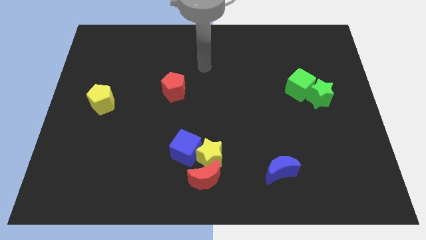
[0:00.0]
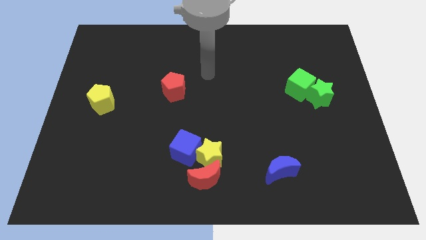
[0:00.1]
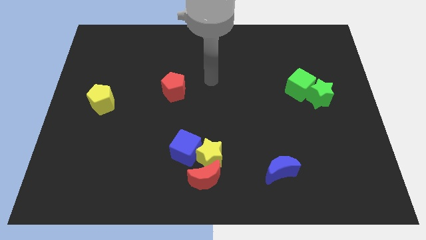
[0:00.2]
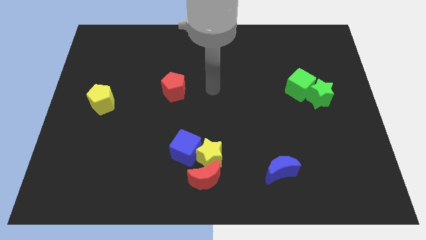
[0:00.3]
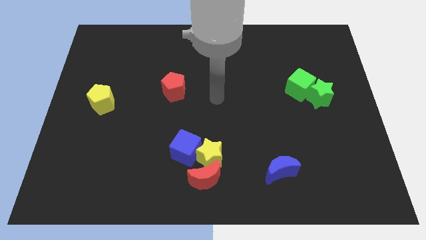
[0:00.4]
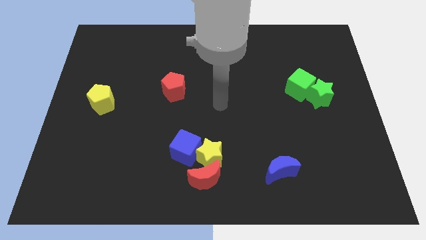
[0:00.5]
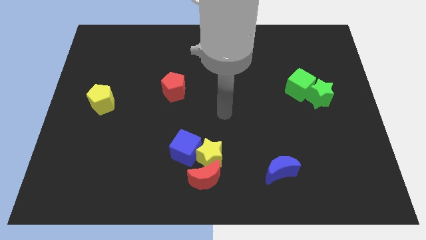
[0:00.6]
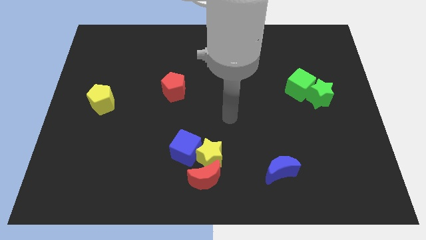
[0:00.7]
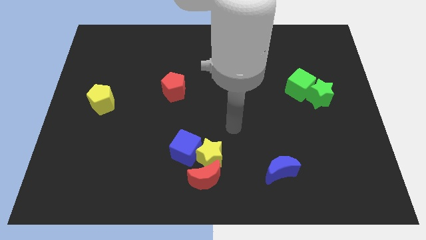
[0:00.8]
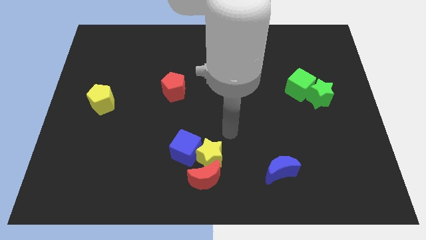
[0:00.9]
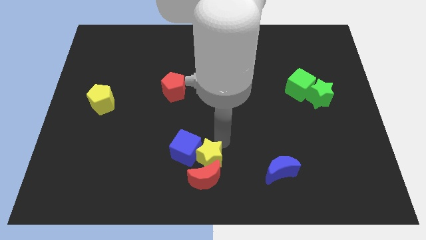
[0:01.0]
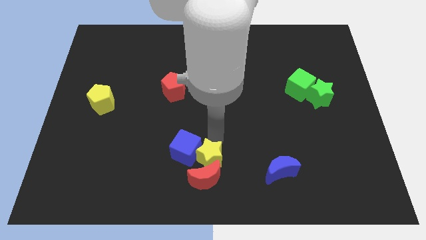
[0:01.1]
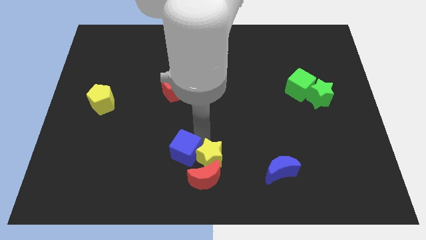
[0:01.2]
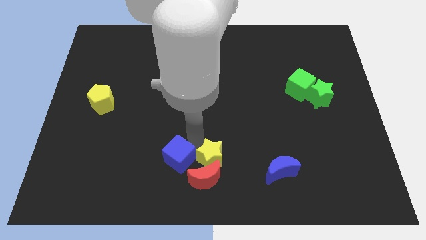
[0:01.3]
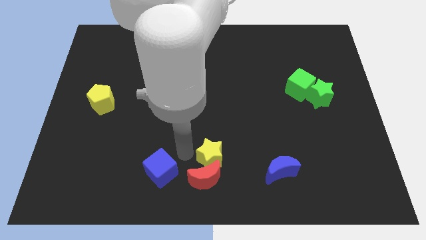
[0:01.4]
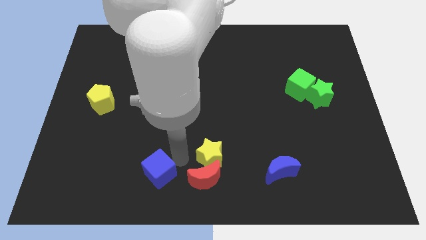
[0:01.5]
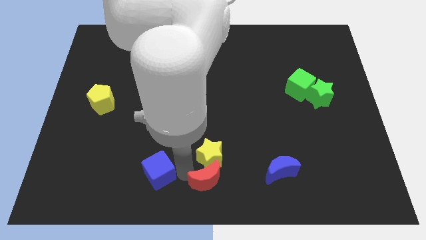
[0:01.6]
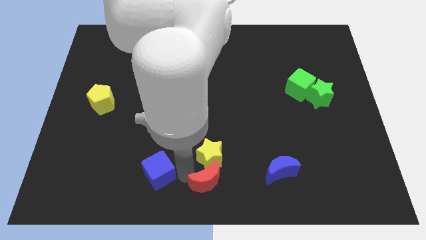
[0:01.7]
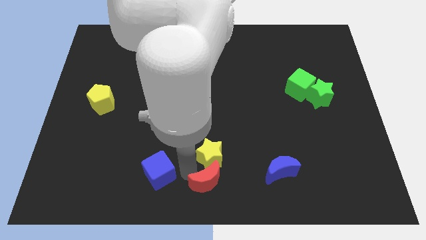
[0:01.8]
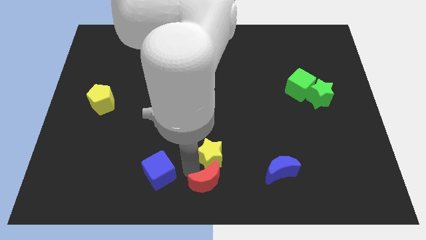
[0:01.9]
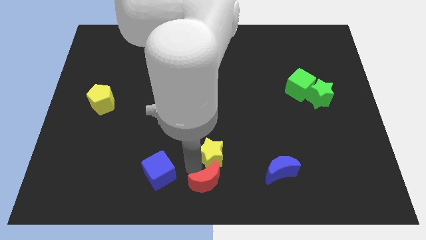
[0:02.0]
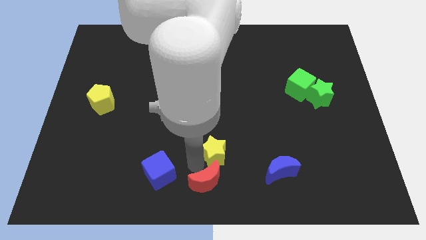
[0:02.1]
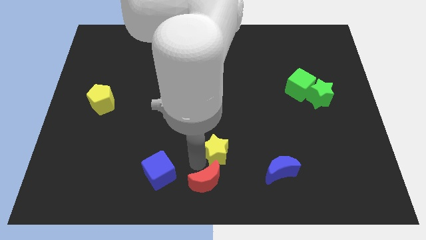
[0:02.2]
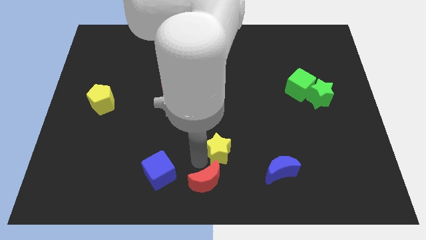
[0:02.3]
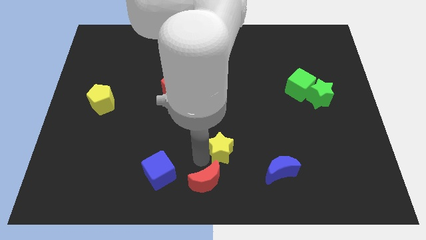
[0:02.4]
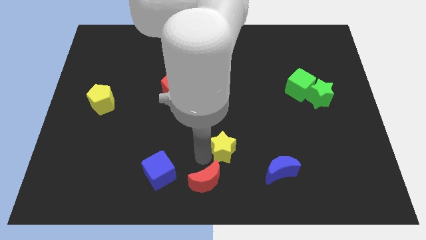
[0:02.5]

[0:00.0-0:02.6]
move the yellow star away from the red moon and blue cube

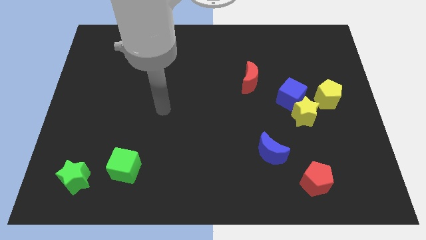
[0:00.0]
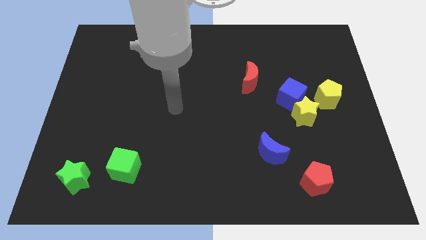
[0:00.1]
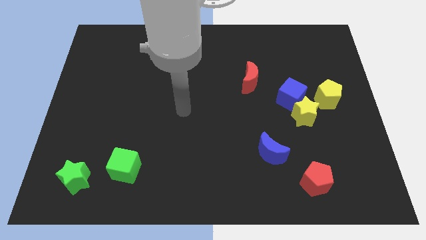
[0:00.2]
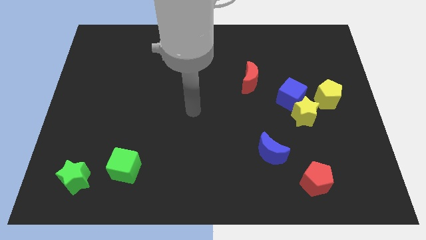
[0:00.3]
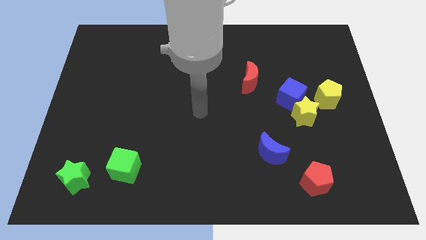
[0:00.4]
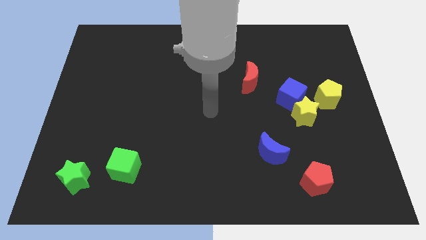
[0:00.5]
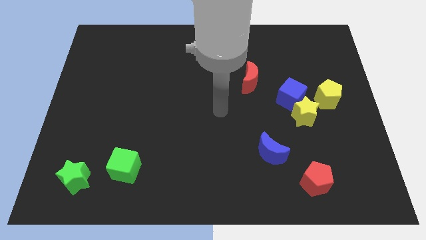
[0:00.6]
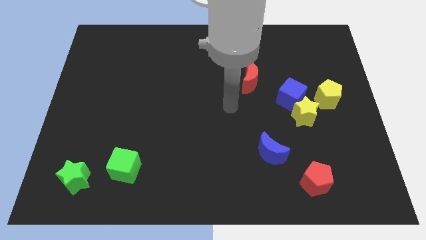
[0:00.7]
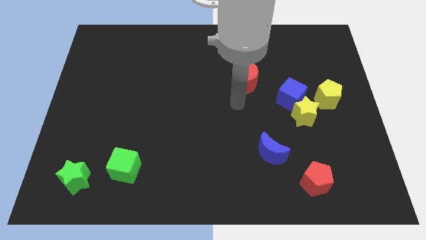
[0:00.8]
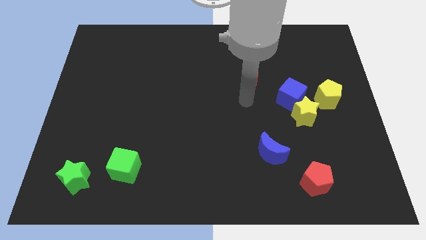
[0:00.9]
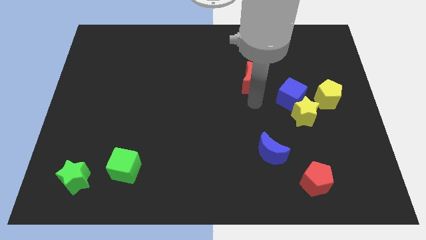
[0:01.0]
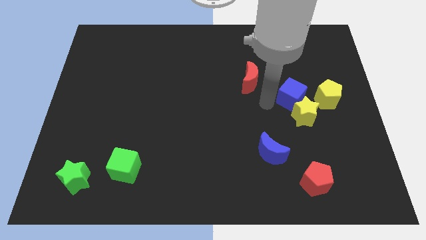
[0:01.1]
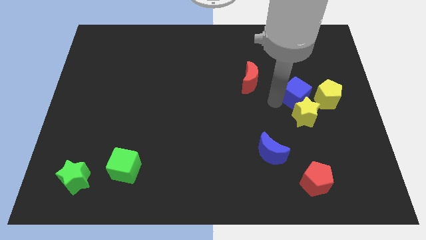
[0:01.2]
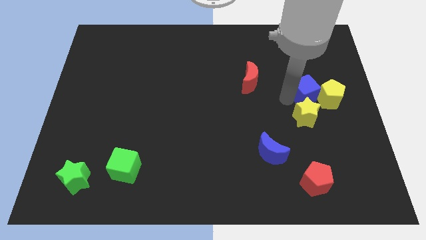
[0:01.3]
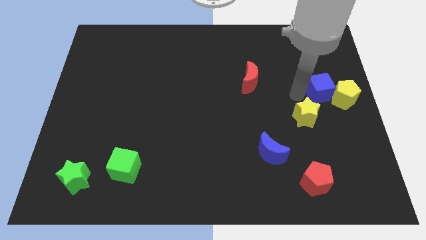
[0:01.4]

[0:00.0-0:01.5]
separate the yellow star from the blue cube and yellow pentagon

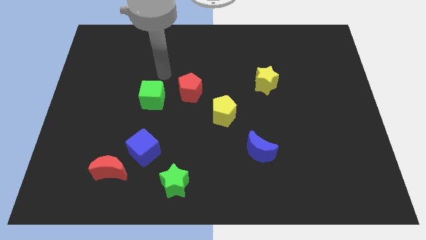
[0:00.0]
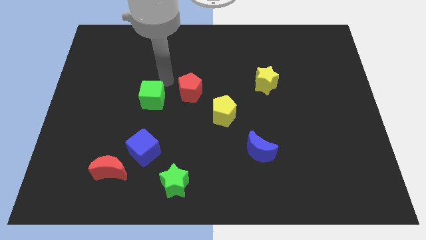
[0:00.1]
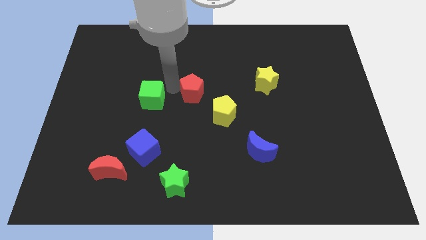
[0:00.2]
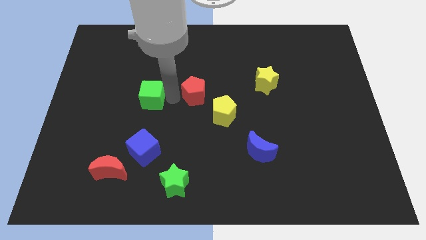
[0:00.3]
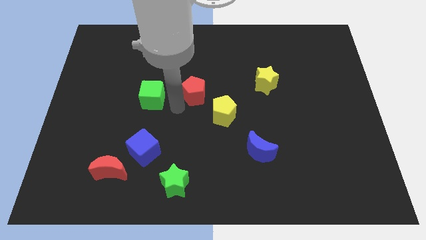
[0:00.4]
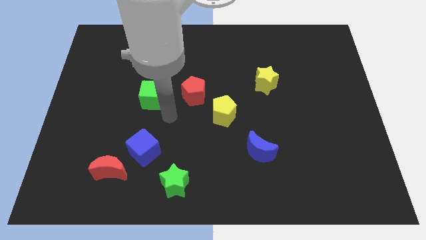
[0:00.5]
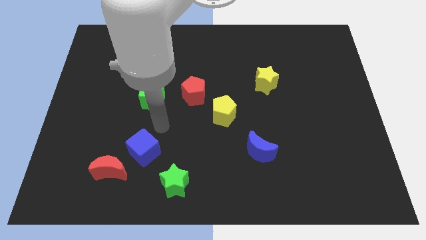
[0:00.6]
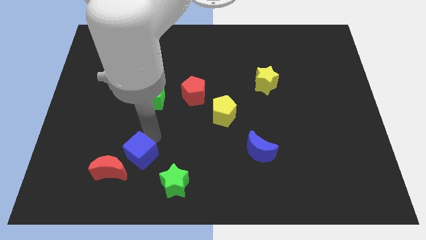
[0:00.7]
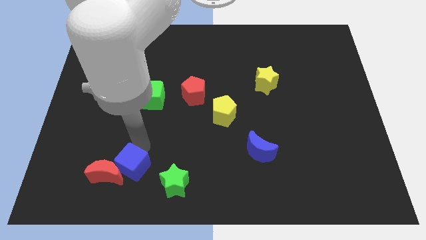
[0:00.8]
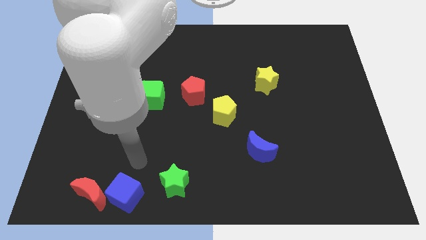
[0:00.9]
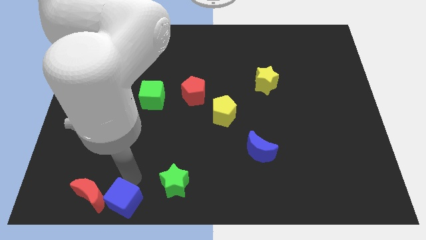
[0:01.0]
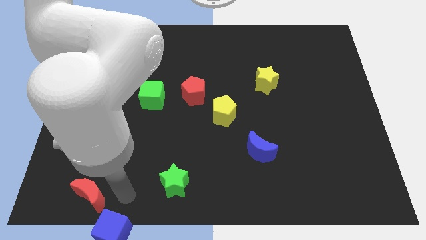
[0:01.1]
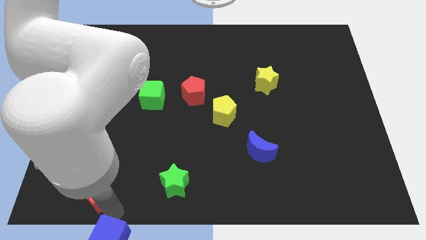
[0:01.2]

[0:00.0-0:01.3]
move the red moon away from the blue cube

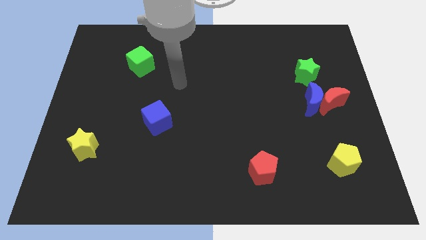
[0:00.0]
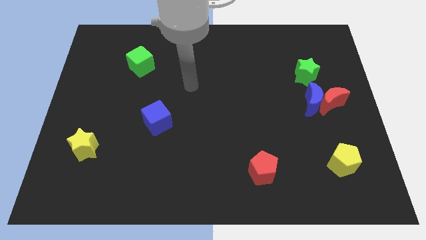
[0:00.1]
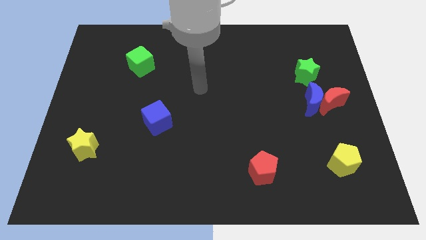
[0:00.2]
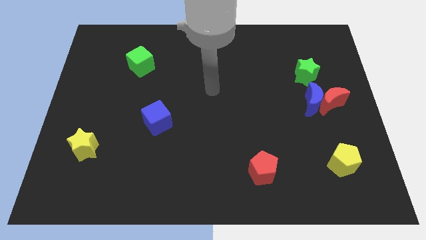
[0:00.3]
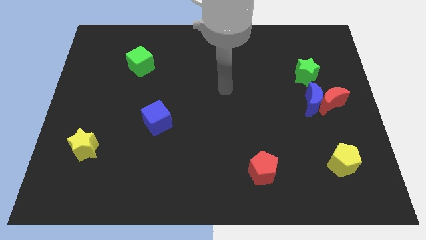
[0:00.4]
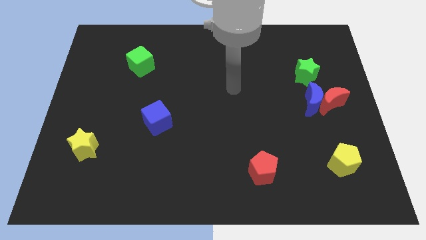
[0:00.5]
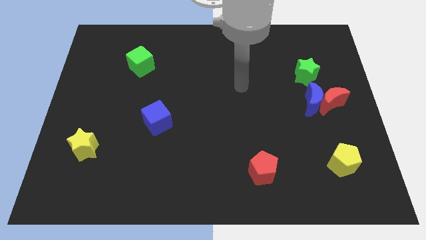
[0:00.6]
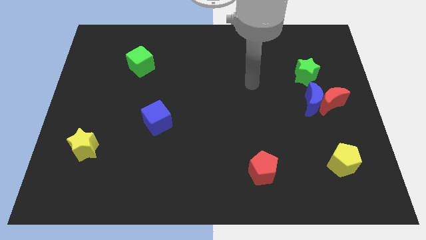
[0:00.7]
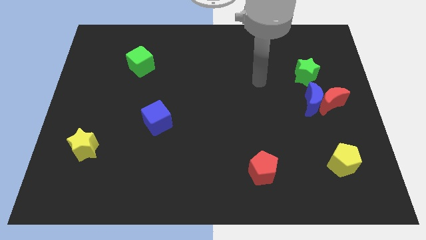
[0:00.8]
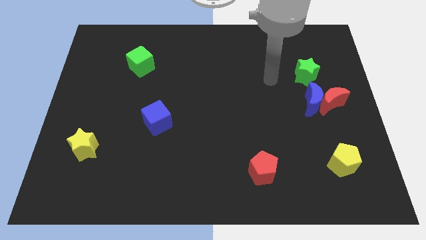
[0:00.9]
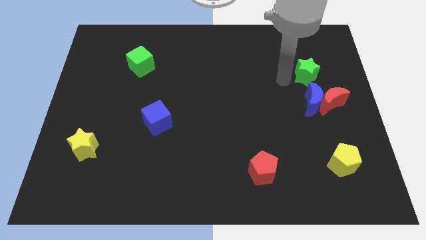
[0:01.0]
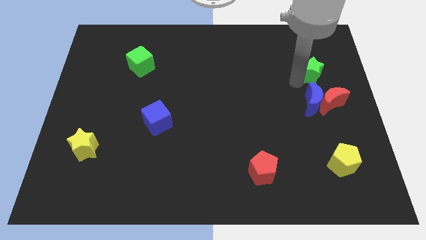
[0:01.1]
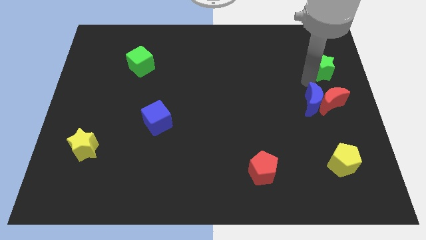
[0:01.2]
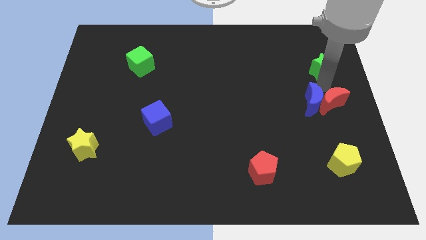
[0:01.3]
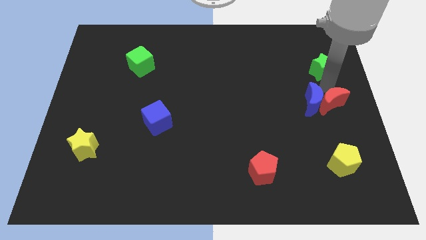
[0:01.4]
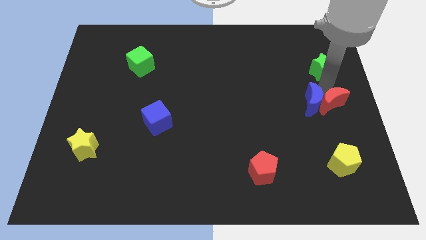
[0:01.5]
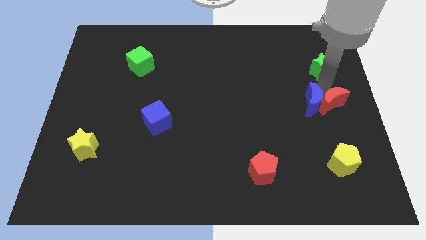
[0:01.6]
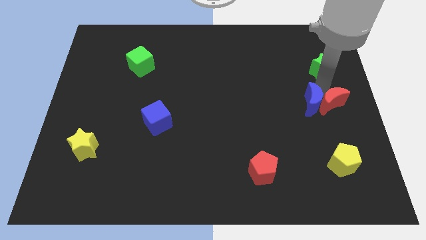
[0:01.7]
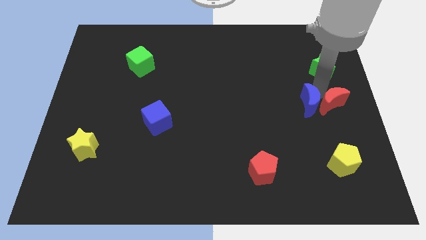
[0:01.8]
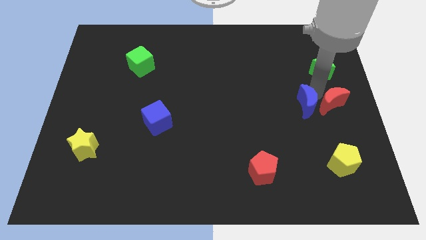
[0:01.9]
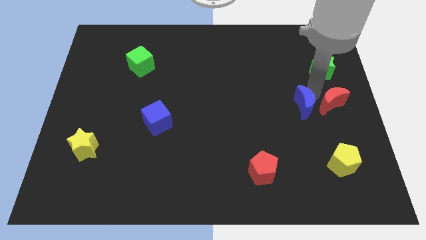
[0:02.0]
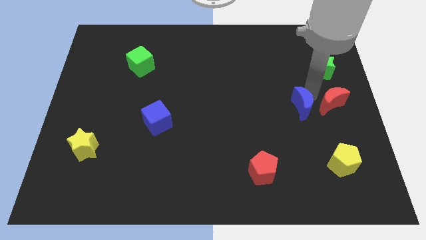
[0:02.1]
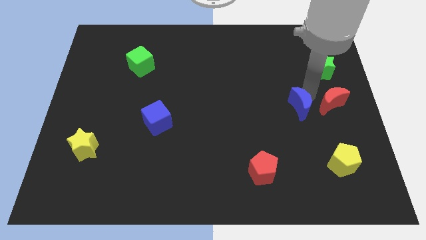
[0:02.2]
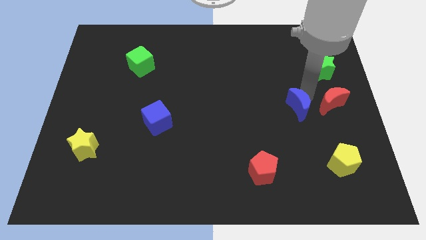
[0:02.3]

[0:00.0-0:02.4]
move the blue moon away from the red moon and green star

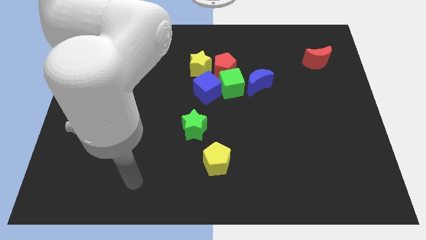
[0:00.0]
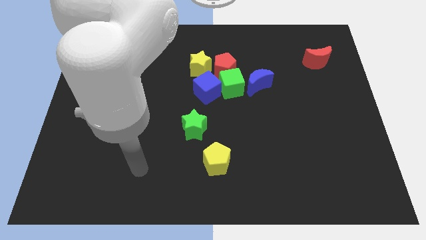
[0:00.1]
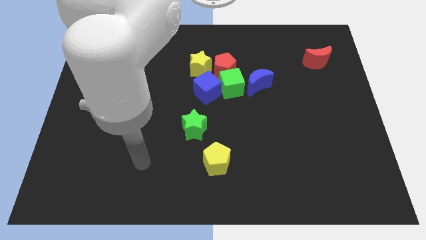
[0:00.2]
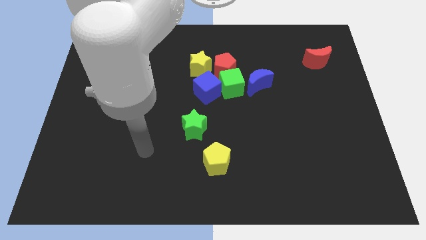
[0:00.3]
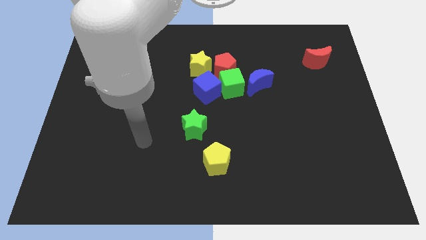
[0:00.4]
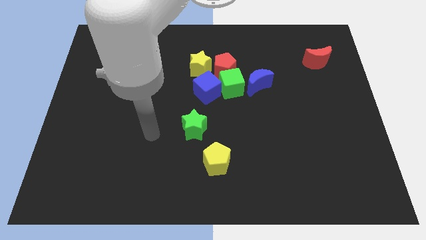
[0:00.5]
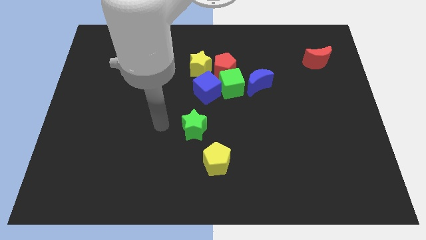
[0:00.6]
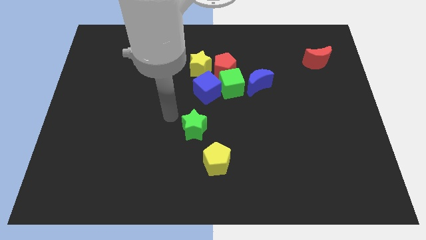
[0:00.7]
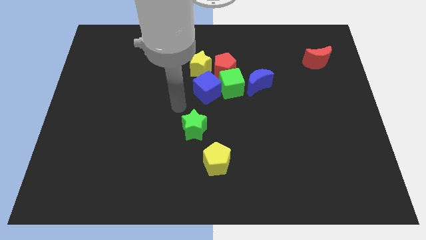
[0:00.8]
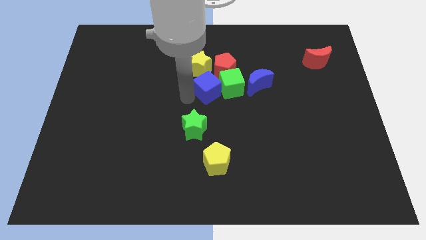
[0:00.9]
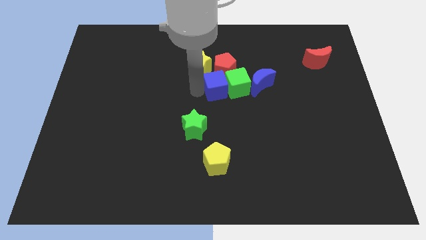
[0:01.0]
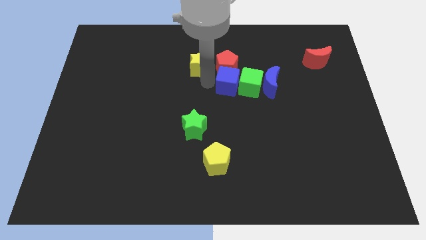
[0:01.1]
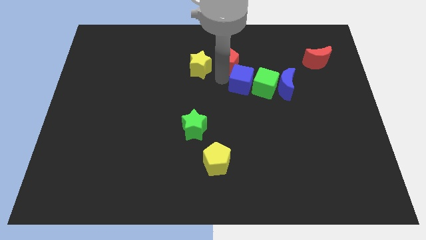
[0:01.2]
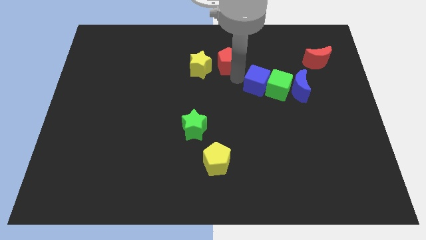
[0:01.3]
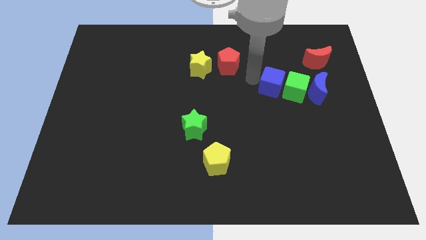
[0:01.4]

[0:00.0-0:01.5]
move the green cube away from the clump

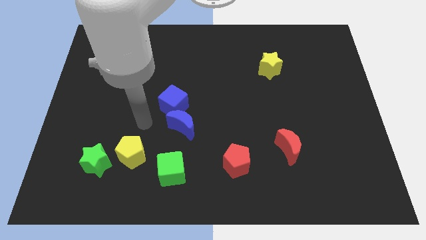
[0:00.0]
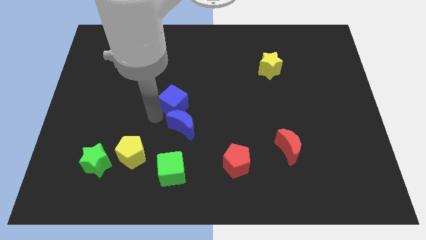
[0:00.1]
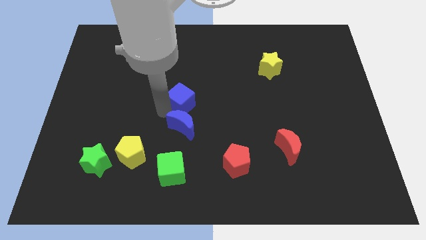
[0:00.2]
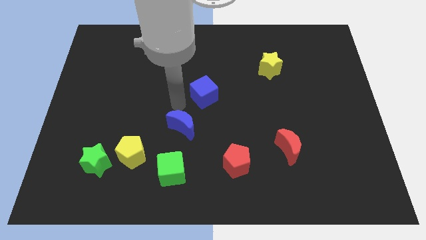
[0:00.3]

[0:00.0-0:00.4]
pull the blue moon apart from the blue cube
